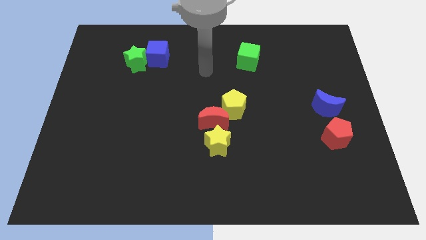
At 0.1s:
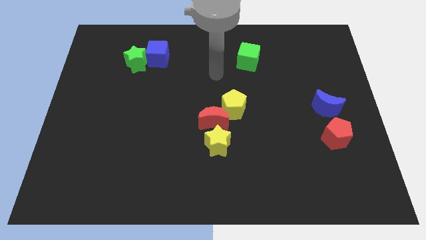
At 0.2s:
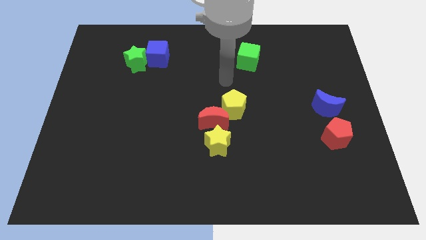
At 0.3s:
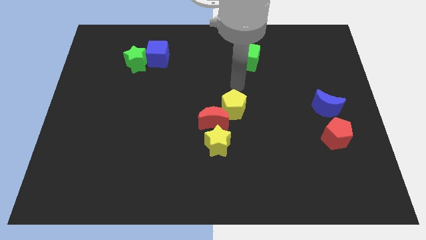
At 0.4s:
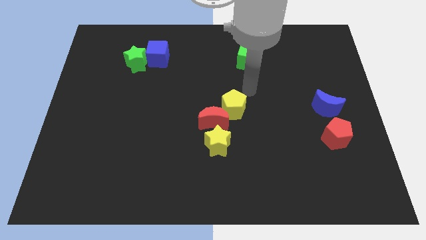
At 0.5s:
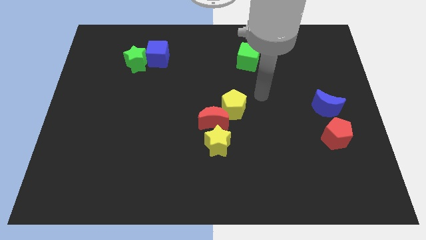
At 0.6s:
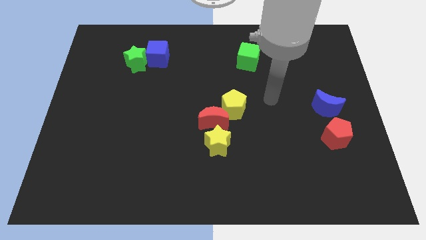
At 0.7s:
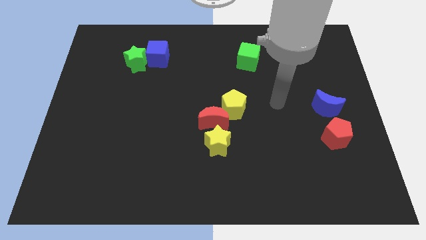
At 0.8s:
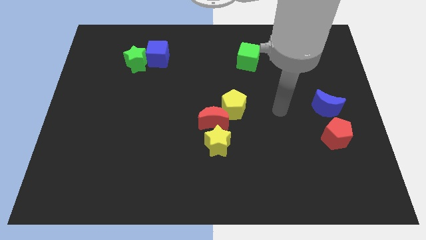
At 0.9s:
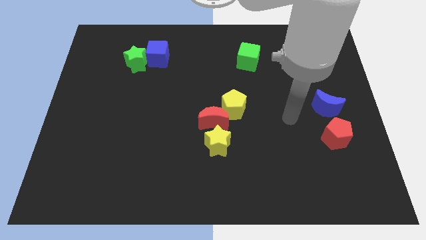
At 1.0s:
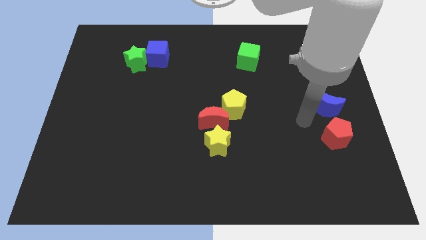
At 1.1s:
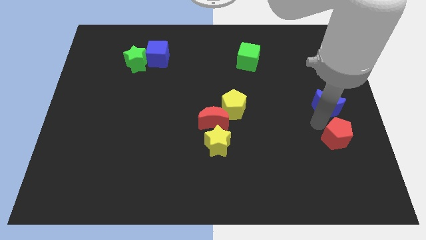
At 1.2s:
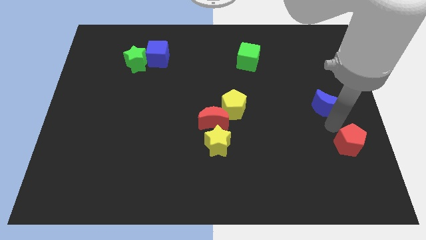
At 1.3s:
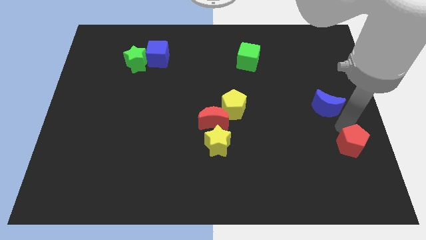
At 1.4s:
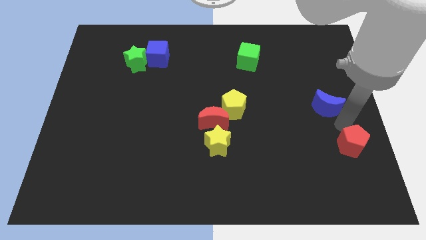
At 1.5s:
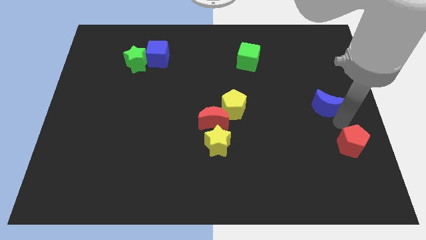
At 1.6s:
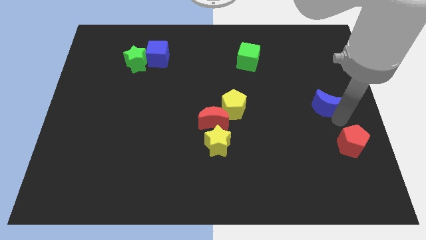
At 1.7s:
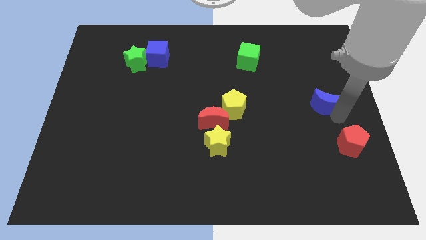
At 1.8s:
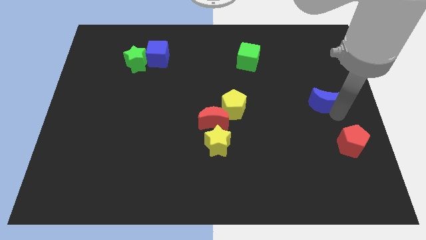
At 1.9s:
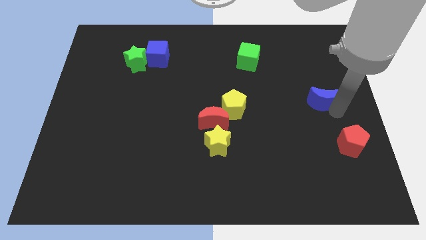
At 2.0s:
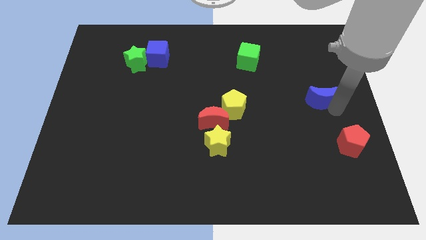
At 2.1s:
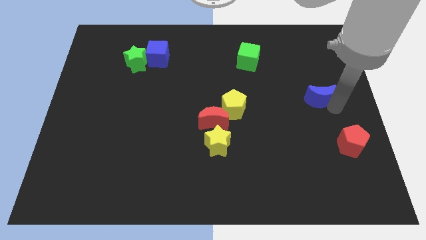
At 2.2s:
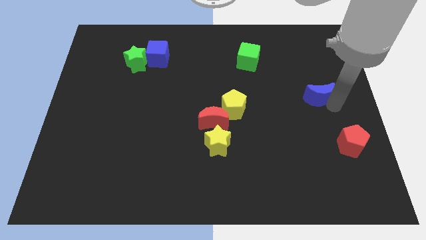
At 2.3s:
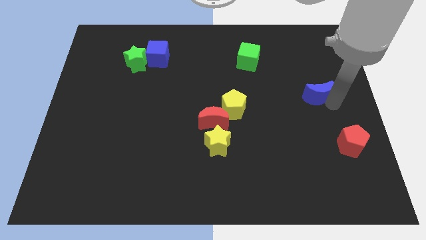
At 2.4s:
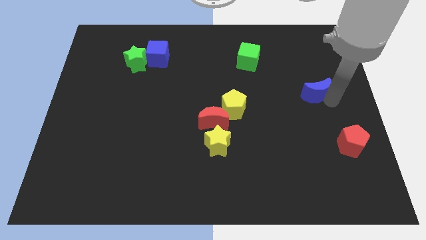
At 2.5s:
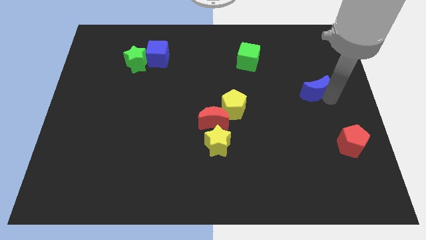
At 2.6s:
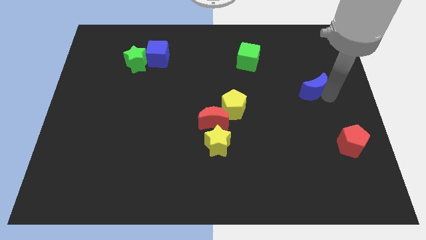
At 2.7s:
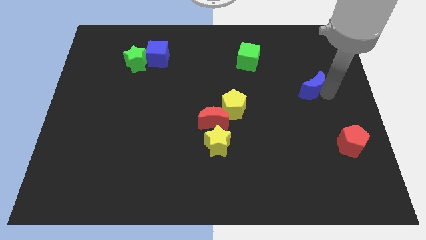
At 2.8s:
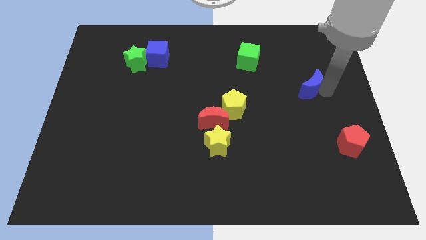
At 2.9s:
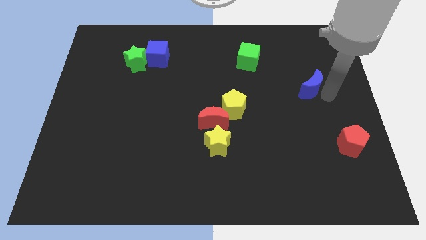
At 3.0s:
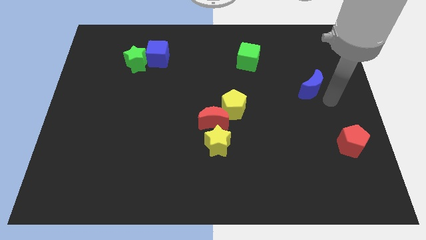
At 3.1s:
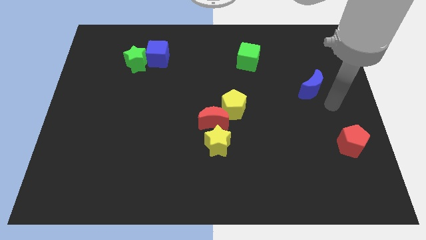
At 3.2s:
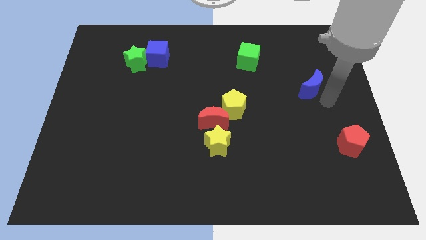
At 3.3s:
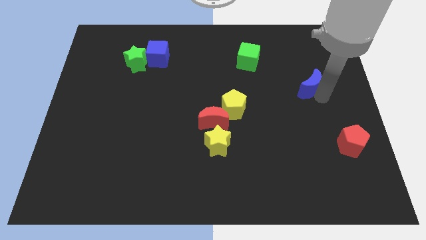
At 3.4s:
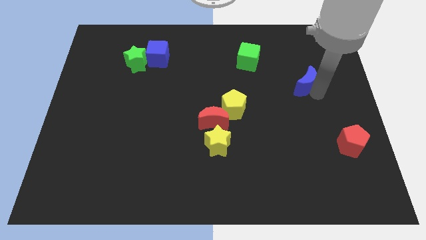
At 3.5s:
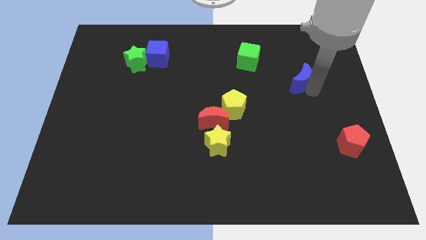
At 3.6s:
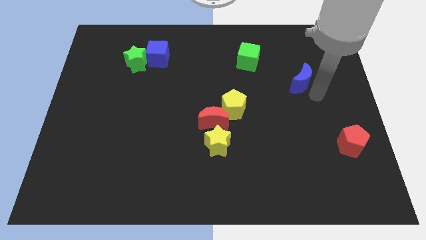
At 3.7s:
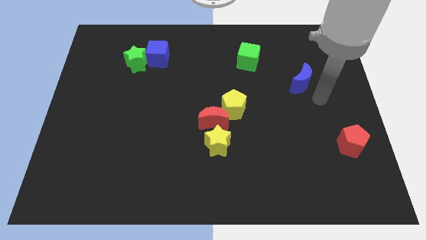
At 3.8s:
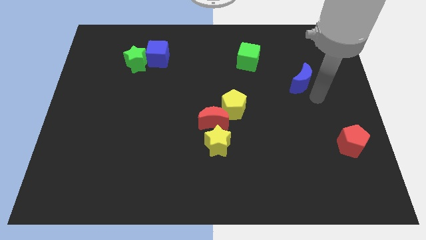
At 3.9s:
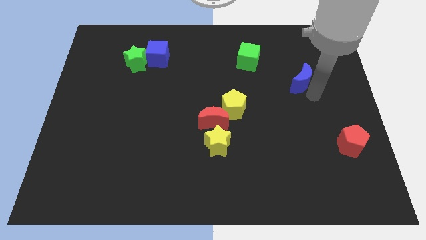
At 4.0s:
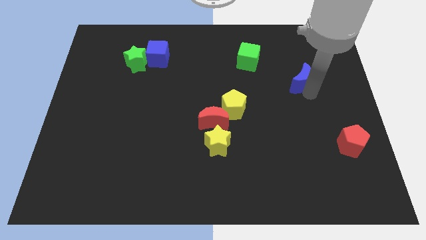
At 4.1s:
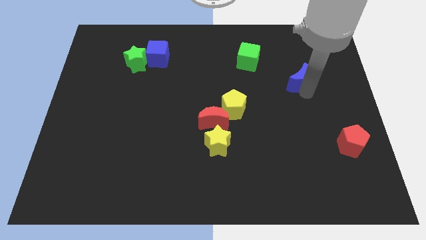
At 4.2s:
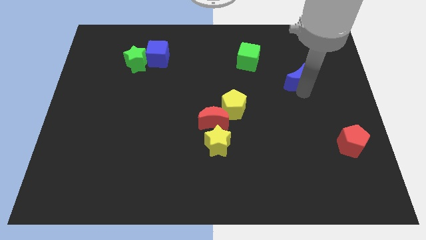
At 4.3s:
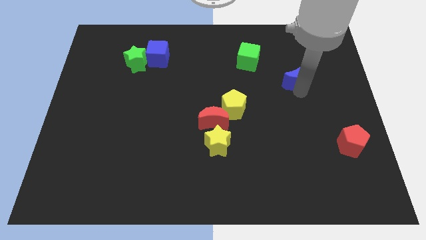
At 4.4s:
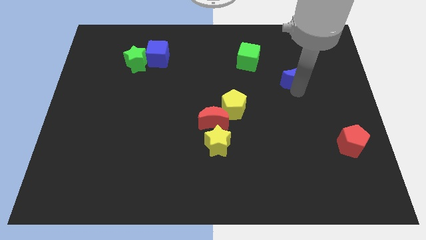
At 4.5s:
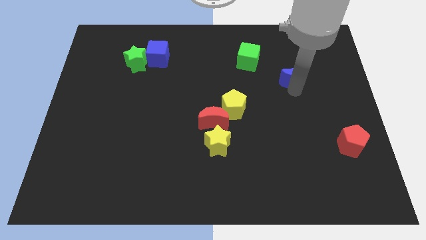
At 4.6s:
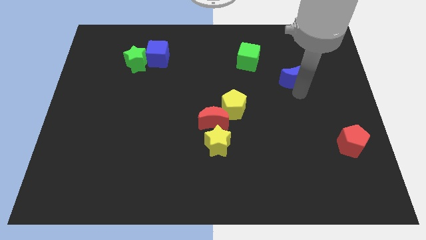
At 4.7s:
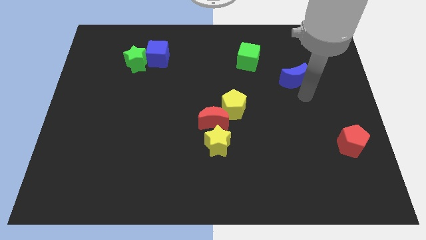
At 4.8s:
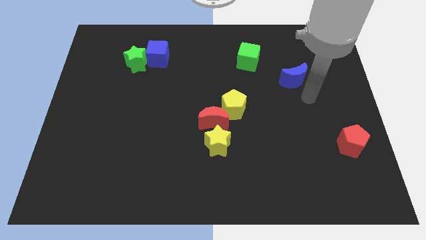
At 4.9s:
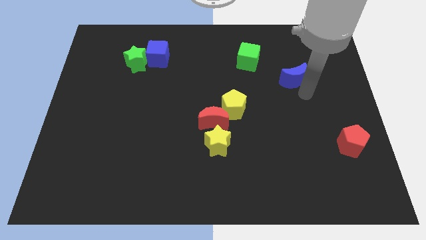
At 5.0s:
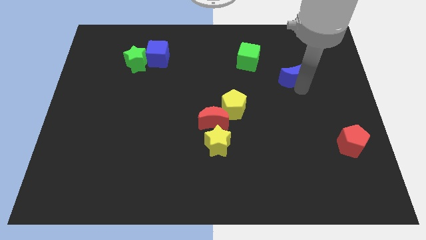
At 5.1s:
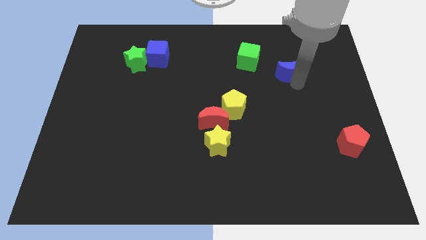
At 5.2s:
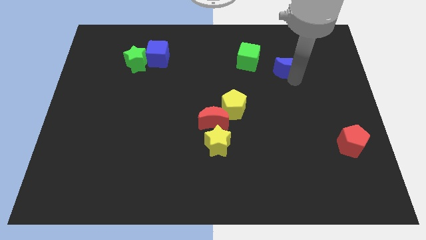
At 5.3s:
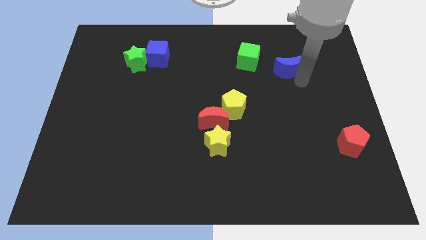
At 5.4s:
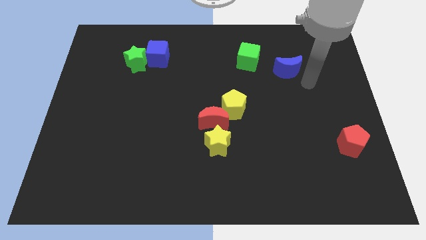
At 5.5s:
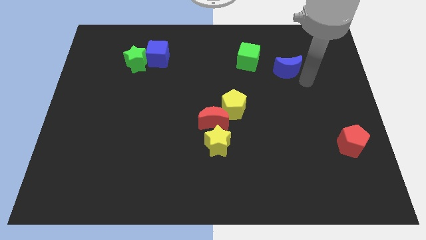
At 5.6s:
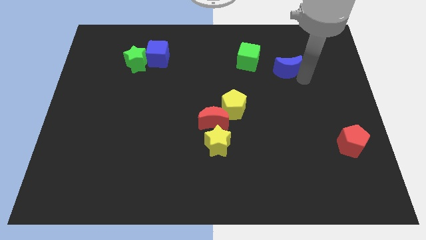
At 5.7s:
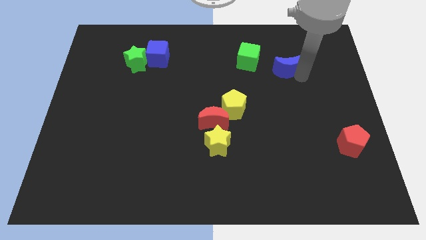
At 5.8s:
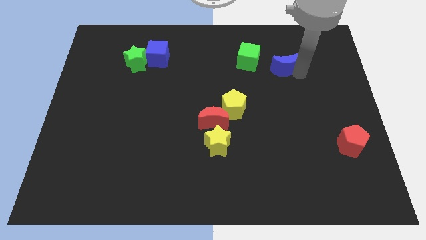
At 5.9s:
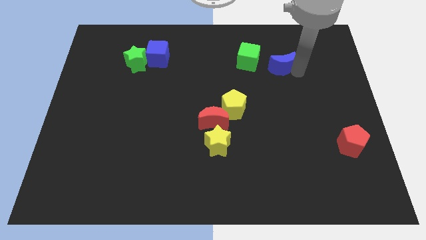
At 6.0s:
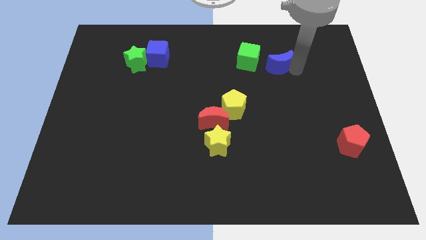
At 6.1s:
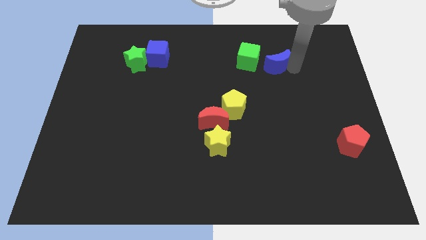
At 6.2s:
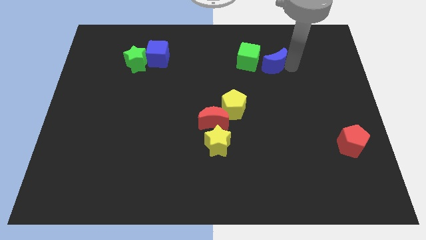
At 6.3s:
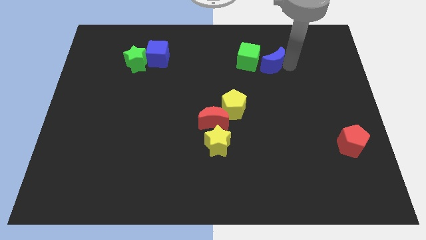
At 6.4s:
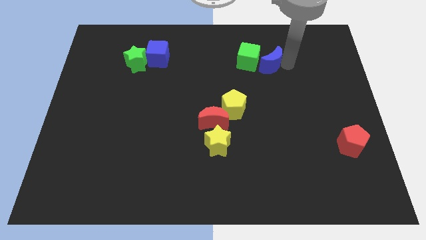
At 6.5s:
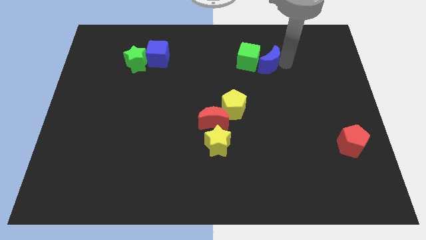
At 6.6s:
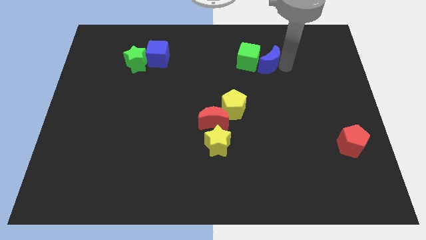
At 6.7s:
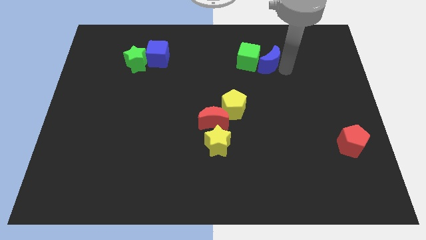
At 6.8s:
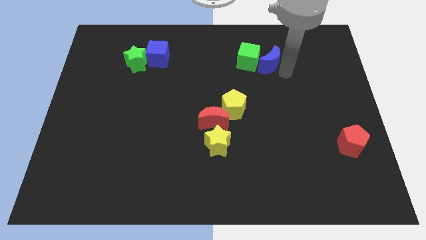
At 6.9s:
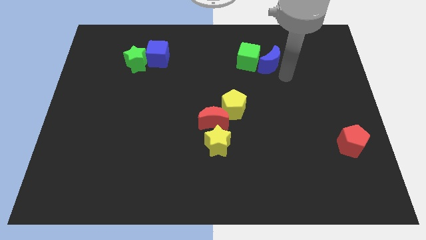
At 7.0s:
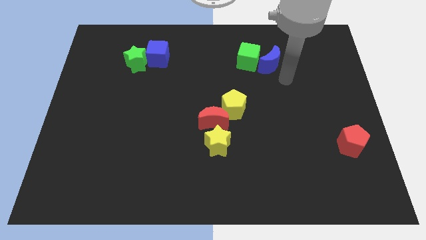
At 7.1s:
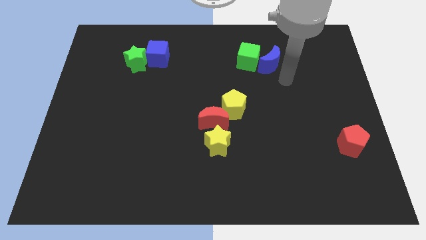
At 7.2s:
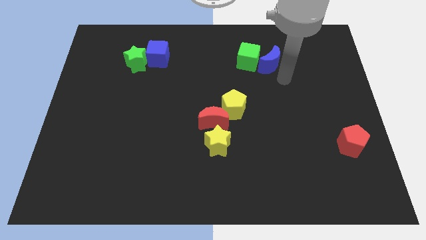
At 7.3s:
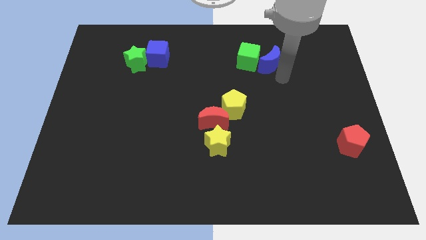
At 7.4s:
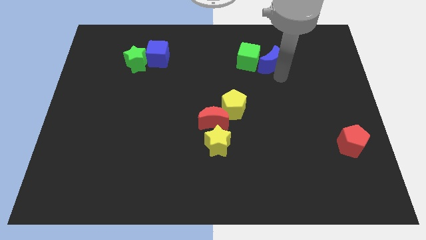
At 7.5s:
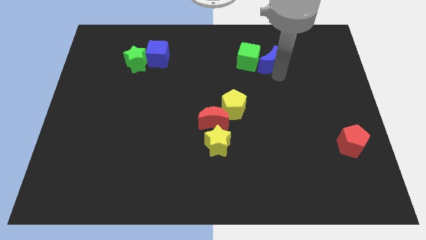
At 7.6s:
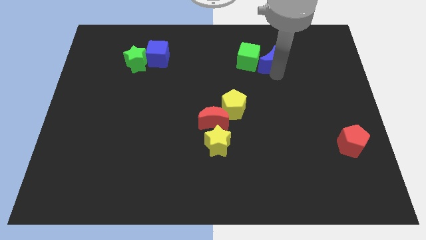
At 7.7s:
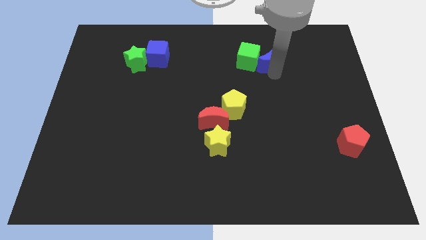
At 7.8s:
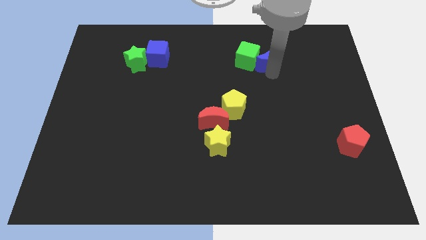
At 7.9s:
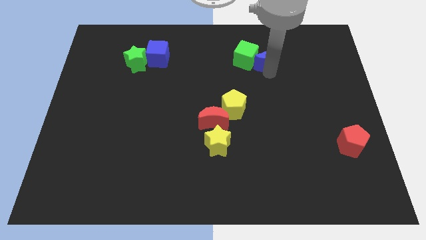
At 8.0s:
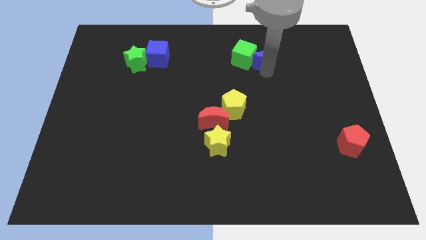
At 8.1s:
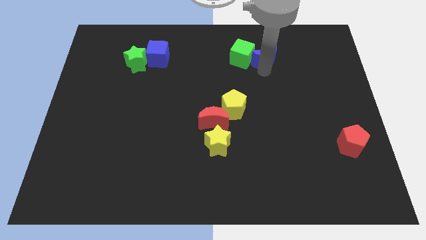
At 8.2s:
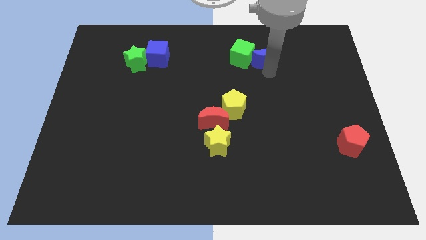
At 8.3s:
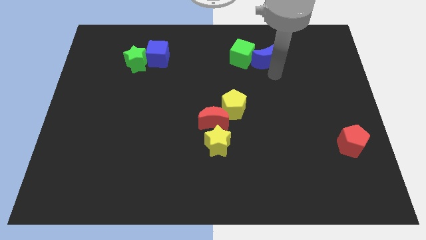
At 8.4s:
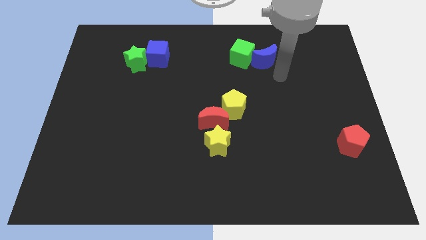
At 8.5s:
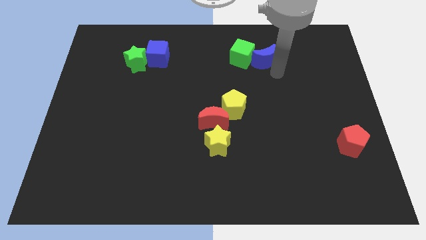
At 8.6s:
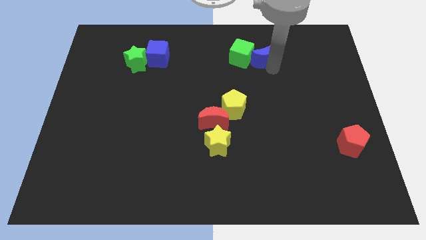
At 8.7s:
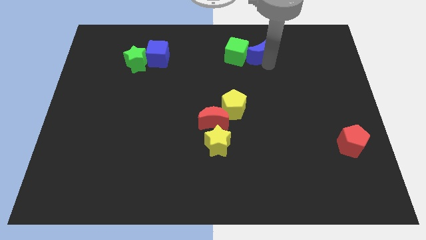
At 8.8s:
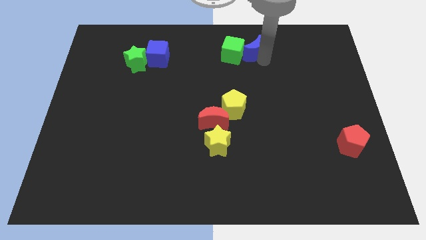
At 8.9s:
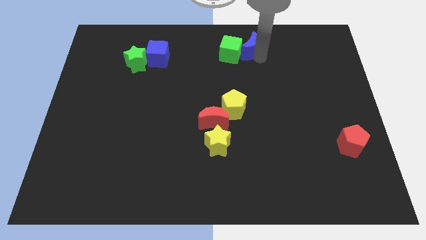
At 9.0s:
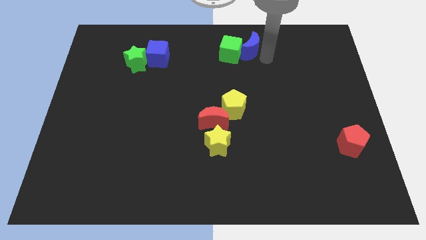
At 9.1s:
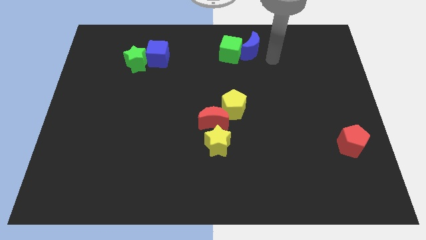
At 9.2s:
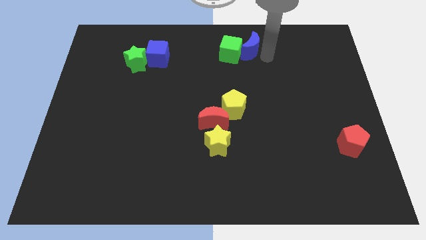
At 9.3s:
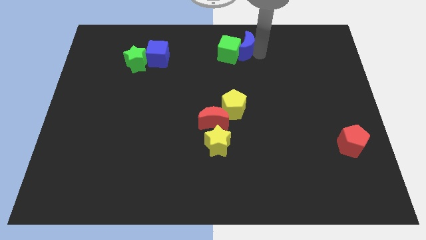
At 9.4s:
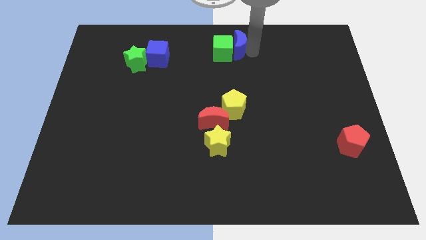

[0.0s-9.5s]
move the blue moon to the top side
